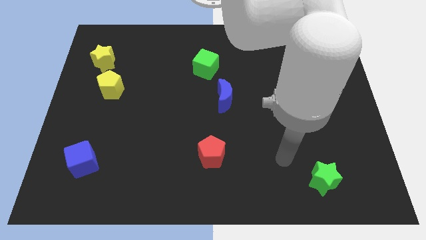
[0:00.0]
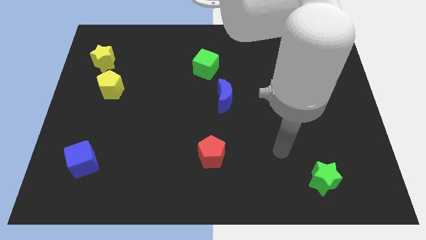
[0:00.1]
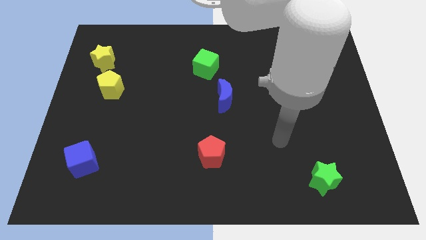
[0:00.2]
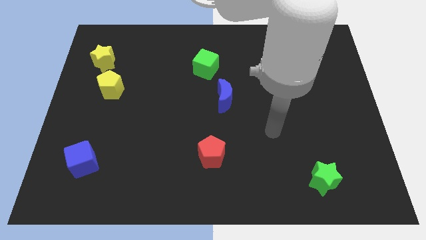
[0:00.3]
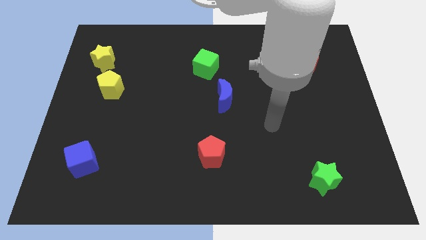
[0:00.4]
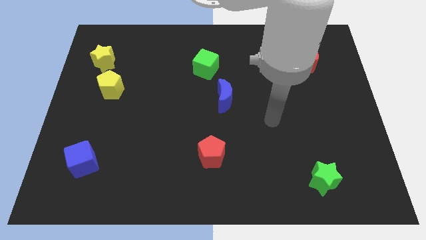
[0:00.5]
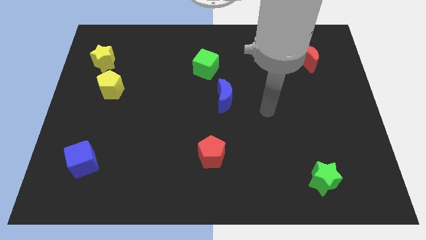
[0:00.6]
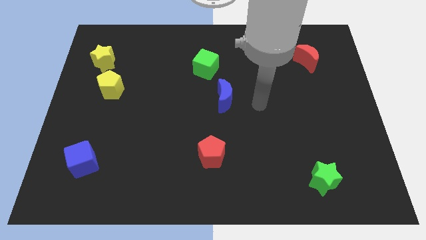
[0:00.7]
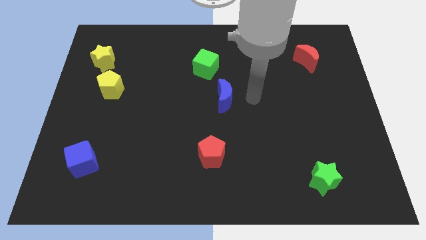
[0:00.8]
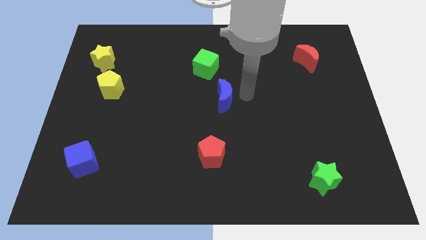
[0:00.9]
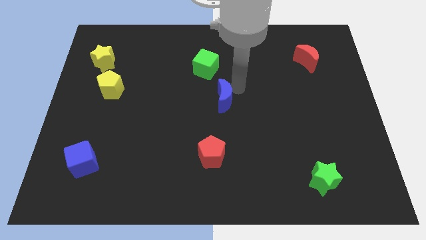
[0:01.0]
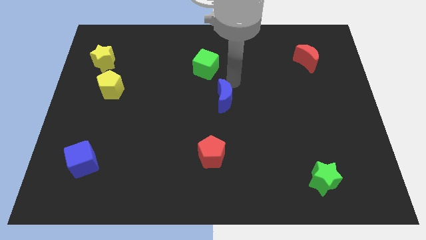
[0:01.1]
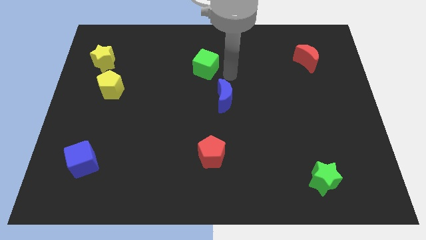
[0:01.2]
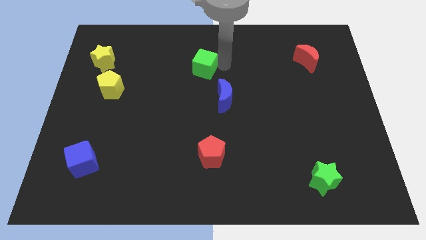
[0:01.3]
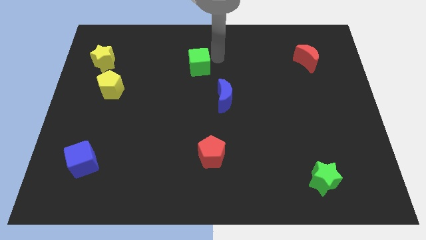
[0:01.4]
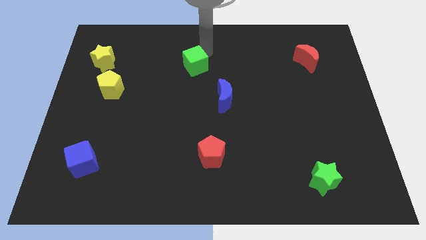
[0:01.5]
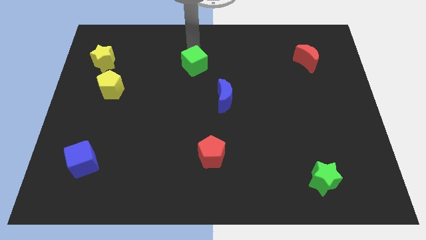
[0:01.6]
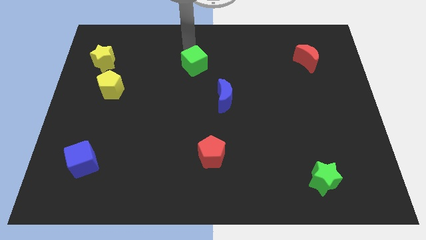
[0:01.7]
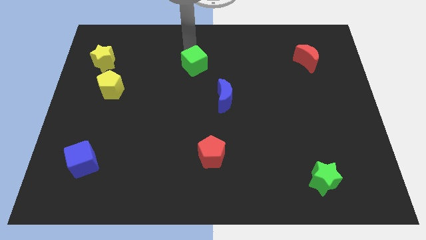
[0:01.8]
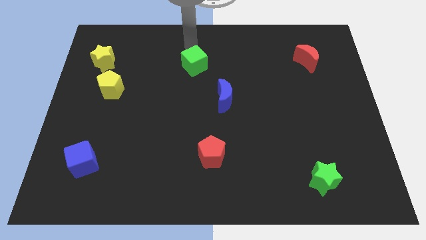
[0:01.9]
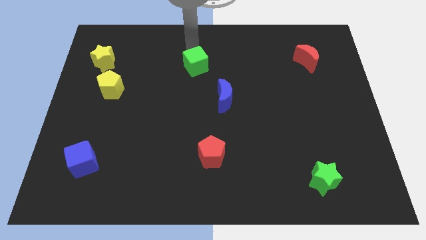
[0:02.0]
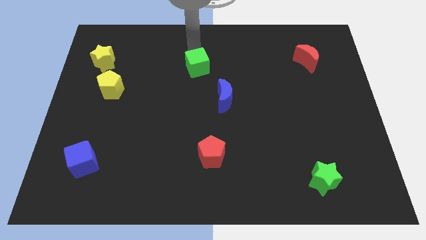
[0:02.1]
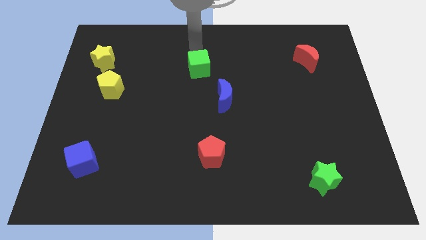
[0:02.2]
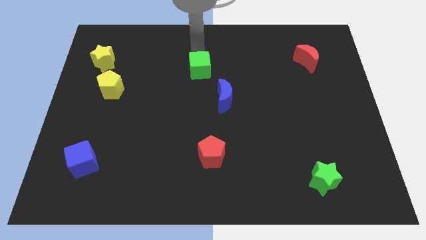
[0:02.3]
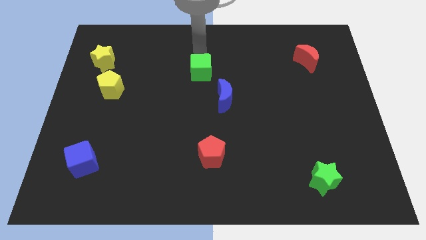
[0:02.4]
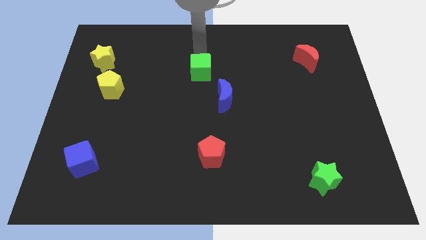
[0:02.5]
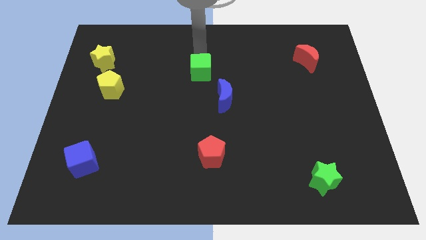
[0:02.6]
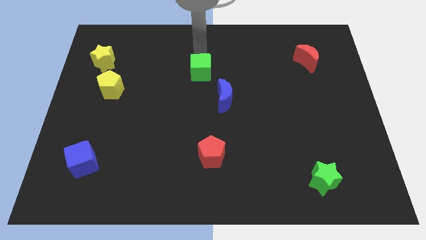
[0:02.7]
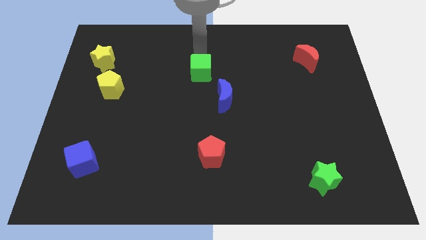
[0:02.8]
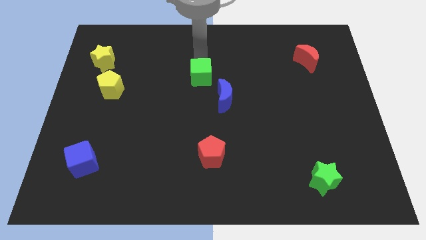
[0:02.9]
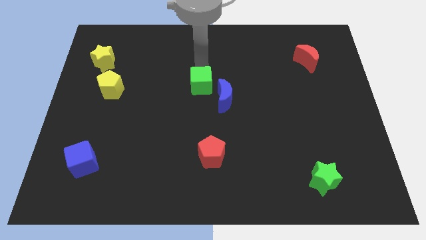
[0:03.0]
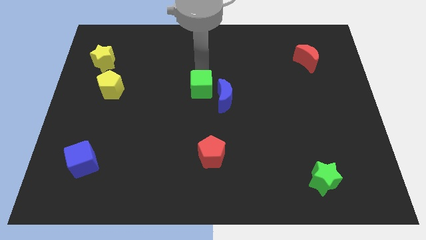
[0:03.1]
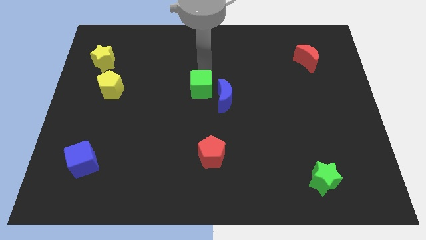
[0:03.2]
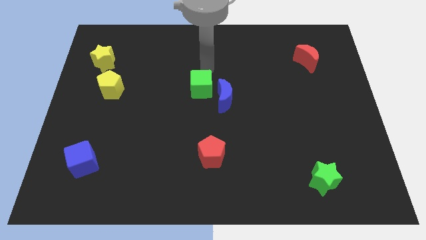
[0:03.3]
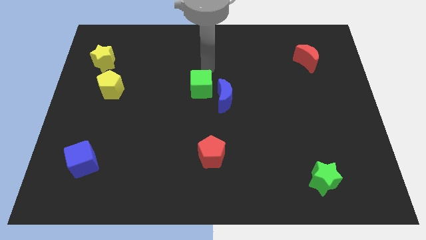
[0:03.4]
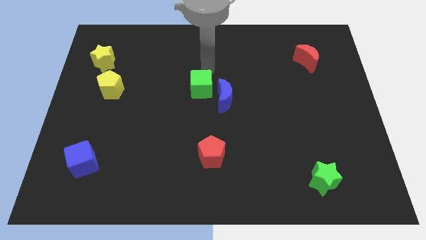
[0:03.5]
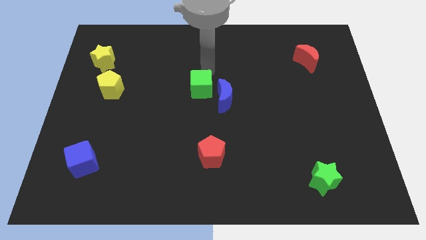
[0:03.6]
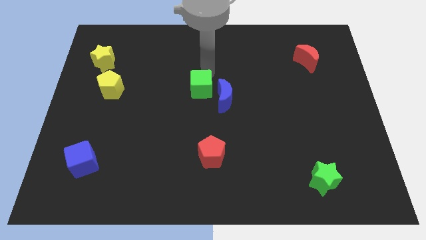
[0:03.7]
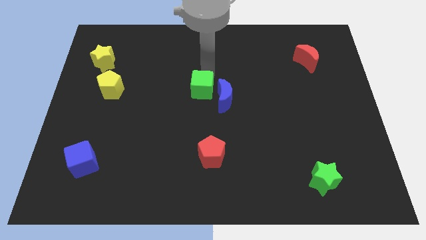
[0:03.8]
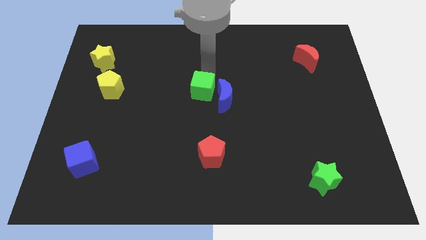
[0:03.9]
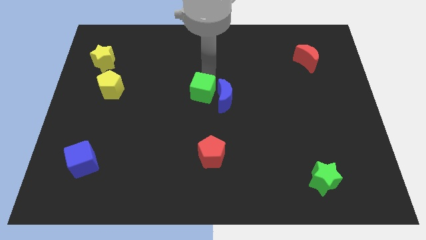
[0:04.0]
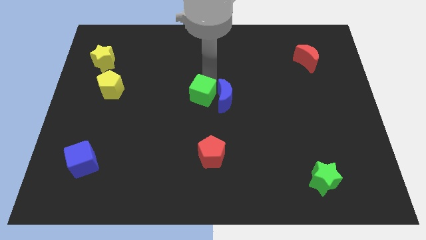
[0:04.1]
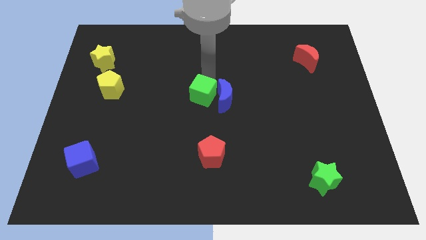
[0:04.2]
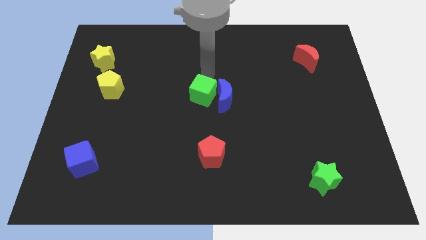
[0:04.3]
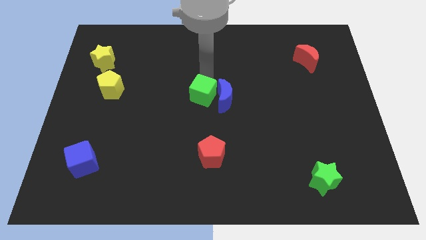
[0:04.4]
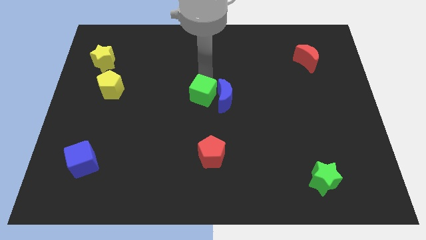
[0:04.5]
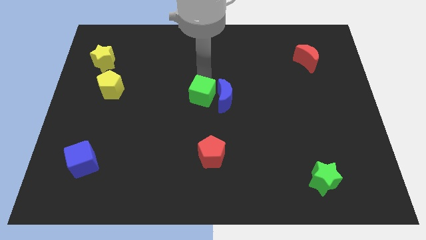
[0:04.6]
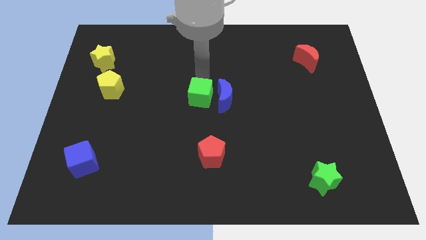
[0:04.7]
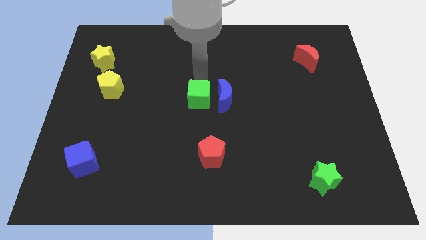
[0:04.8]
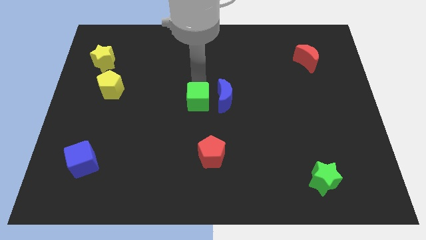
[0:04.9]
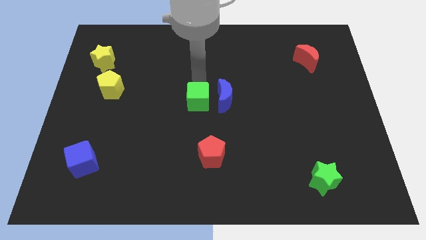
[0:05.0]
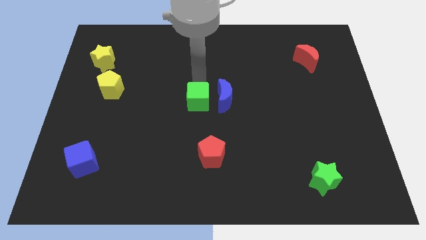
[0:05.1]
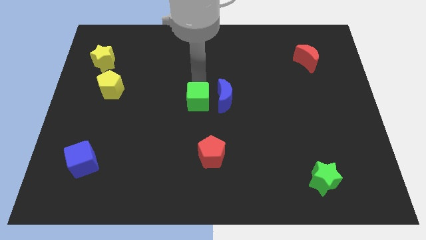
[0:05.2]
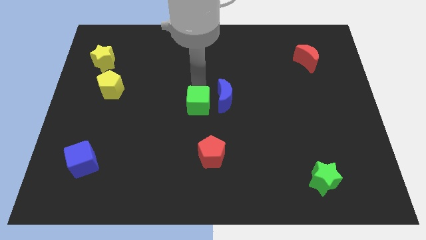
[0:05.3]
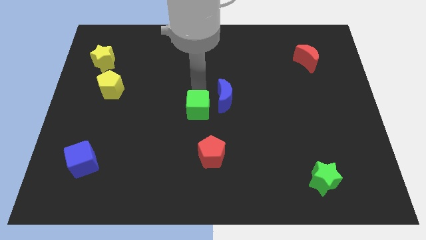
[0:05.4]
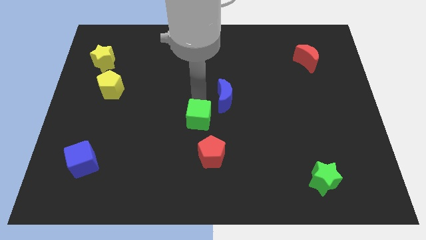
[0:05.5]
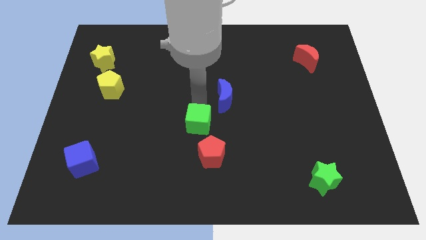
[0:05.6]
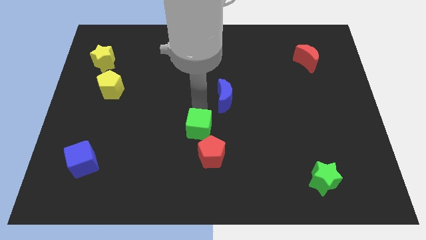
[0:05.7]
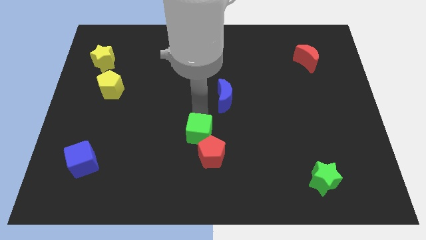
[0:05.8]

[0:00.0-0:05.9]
push the green cube down

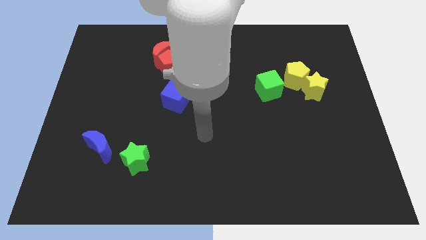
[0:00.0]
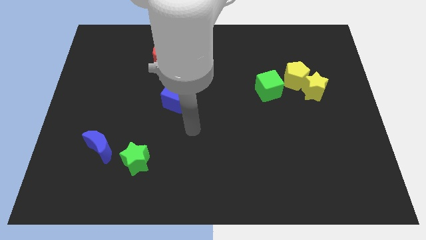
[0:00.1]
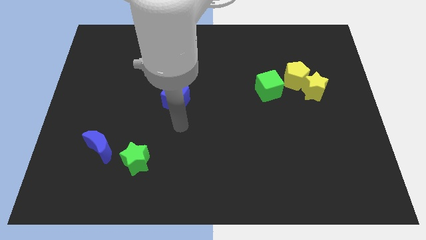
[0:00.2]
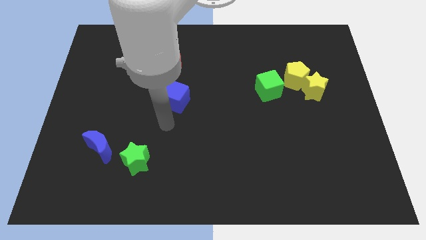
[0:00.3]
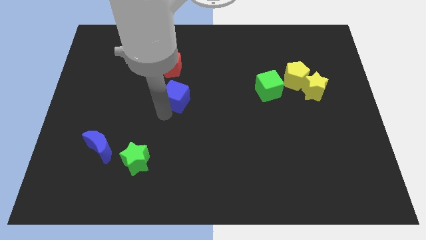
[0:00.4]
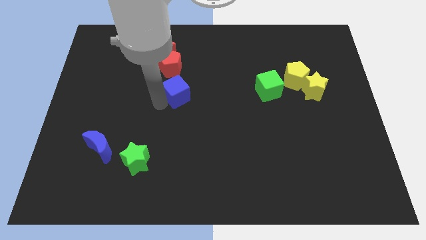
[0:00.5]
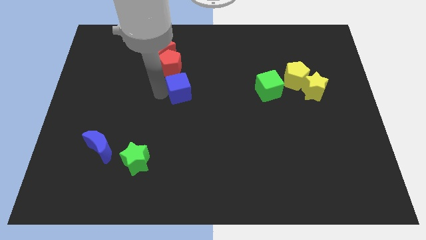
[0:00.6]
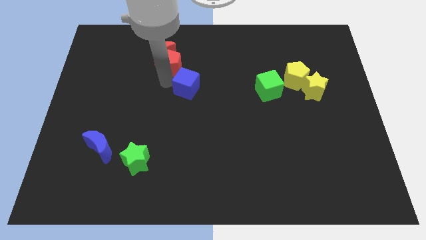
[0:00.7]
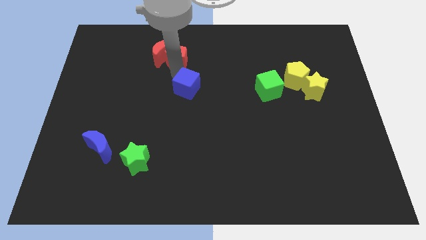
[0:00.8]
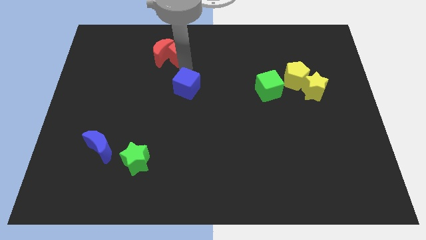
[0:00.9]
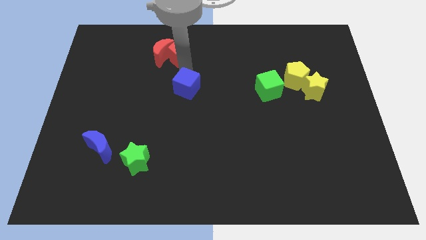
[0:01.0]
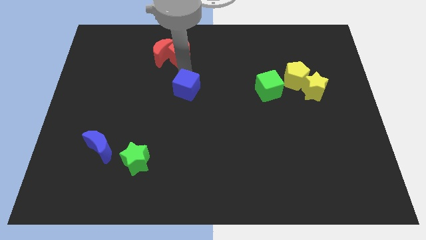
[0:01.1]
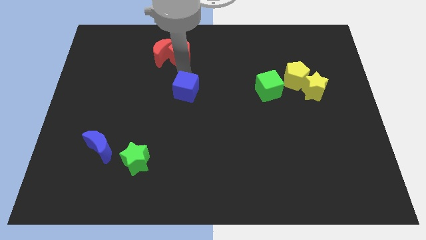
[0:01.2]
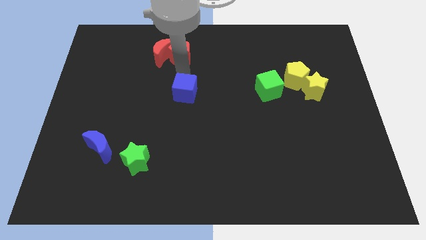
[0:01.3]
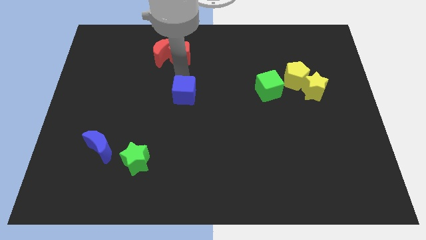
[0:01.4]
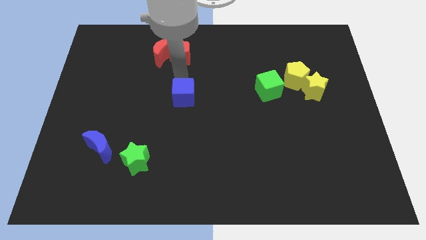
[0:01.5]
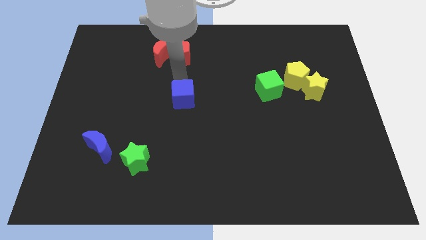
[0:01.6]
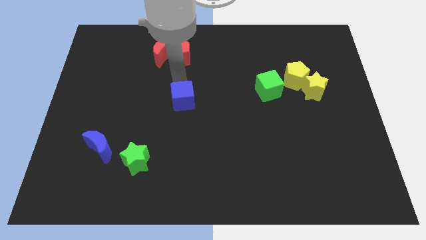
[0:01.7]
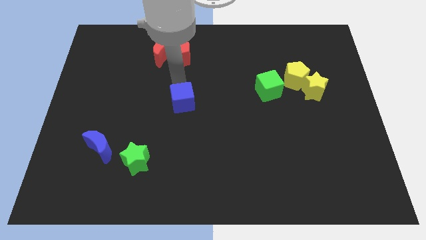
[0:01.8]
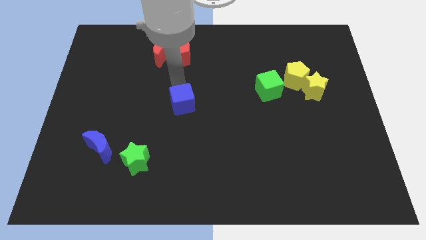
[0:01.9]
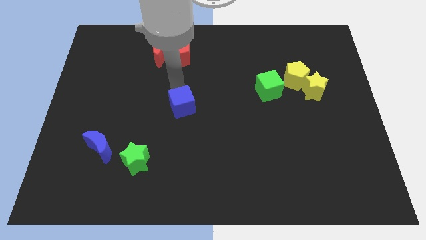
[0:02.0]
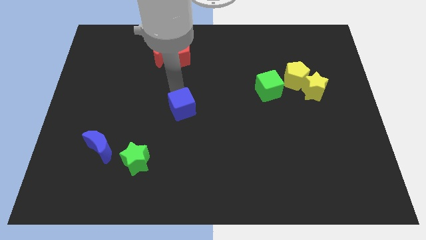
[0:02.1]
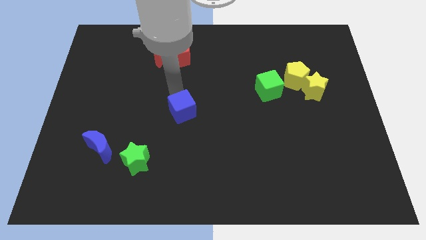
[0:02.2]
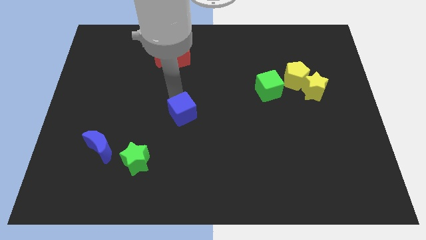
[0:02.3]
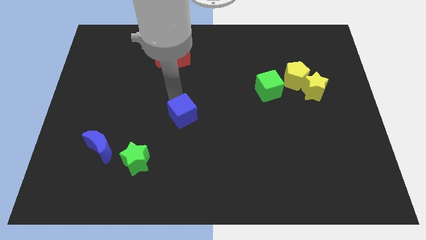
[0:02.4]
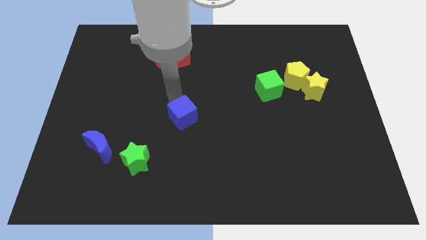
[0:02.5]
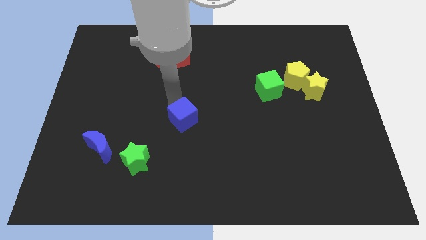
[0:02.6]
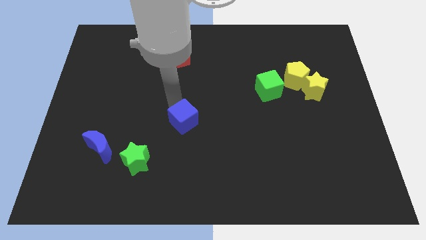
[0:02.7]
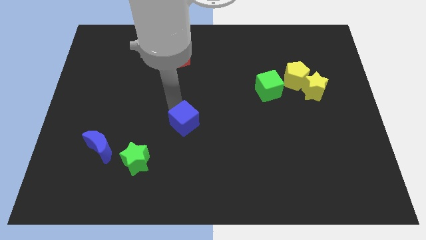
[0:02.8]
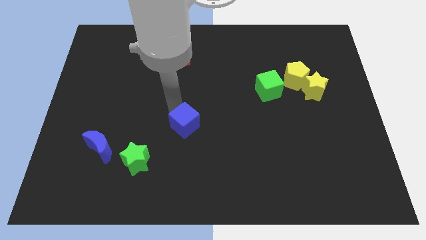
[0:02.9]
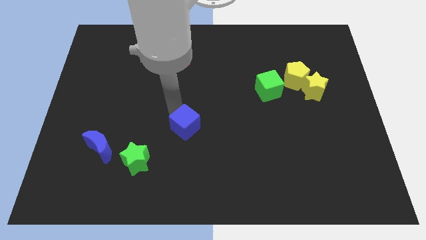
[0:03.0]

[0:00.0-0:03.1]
slightly push the blue cube diagonally down and right
